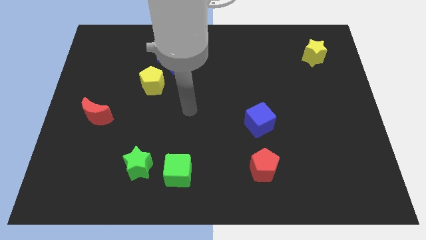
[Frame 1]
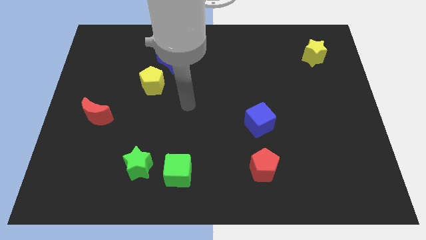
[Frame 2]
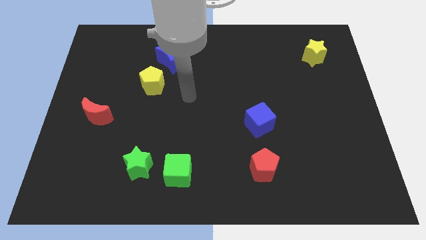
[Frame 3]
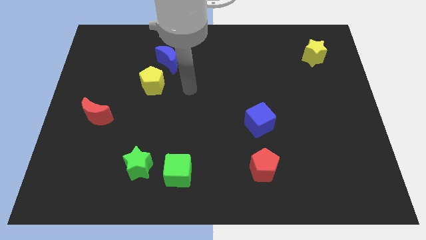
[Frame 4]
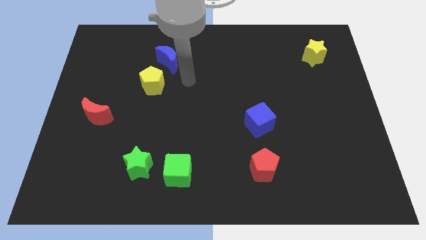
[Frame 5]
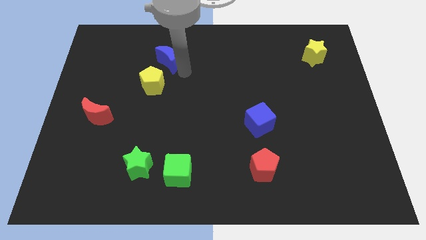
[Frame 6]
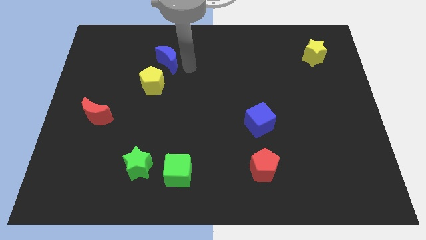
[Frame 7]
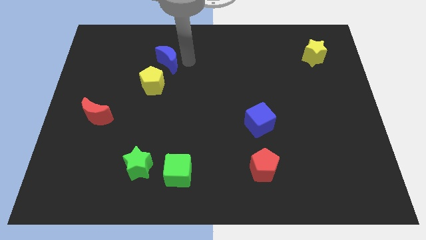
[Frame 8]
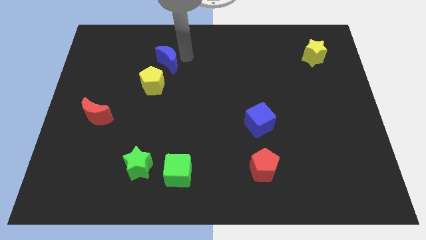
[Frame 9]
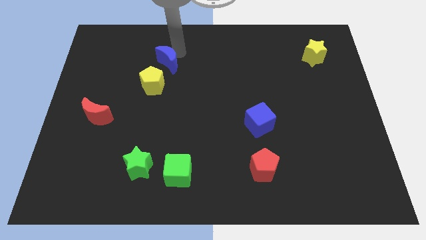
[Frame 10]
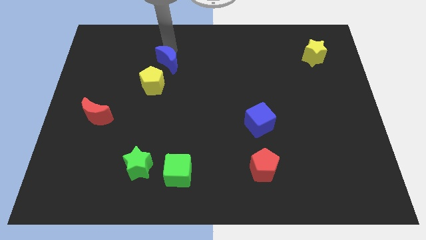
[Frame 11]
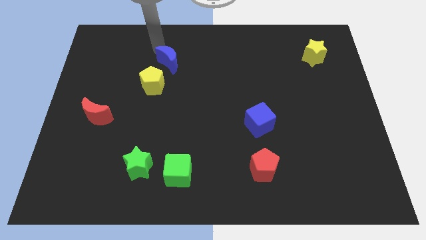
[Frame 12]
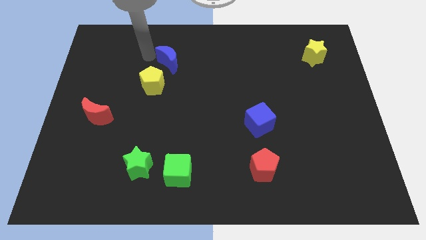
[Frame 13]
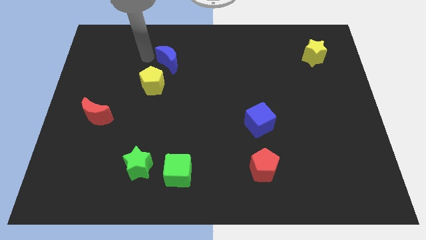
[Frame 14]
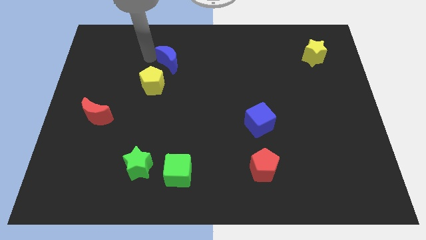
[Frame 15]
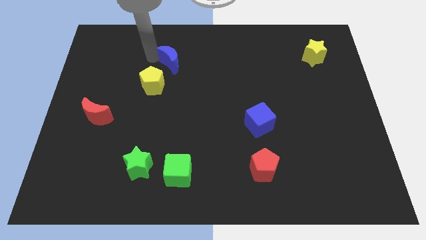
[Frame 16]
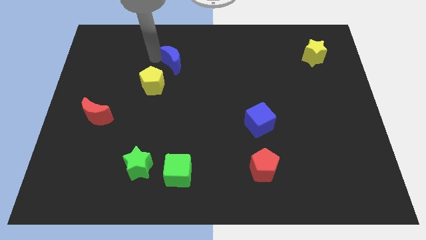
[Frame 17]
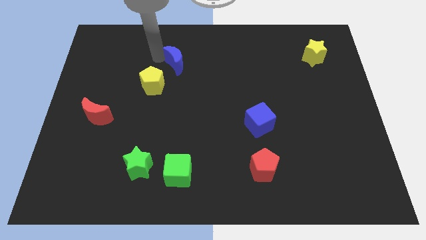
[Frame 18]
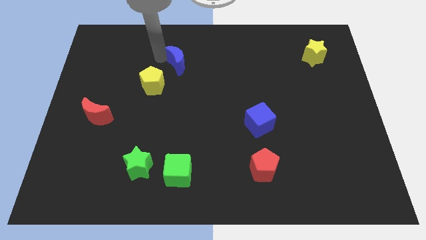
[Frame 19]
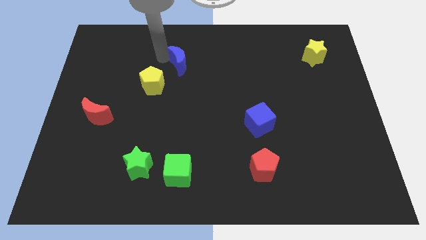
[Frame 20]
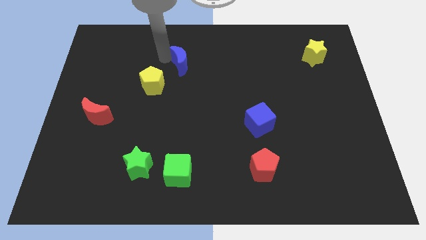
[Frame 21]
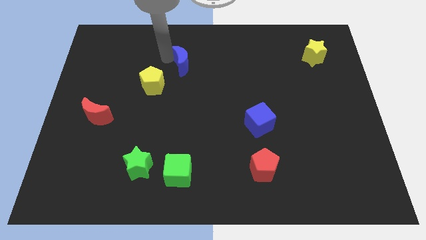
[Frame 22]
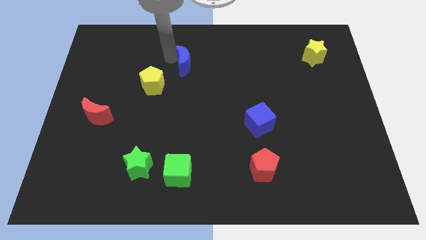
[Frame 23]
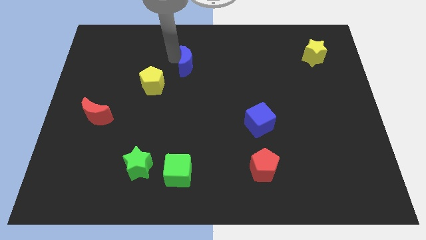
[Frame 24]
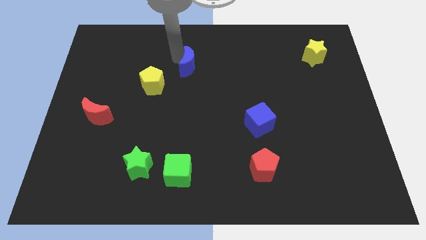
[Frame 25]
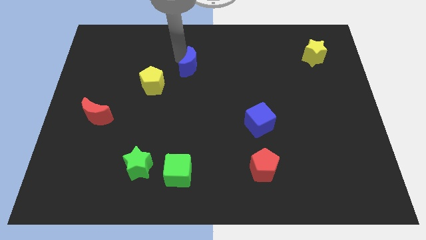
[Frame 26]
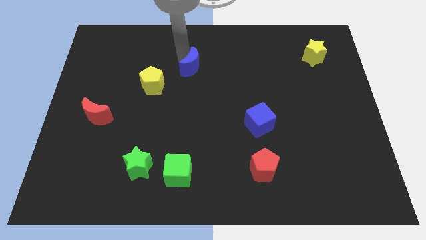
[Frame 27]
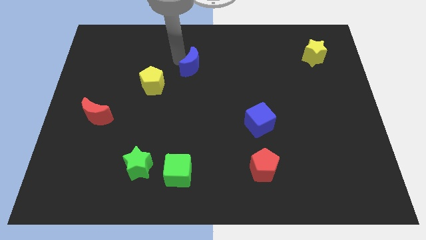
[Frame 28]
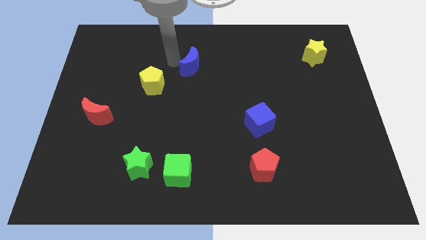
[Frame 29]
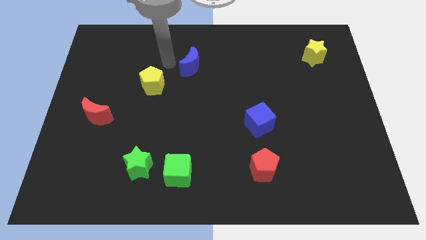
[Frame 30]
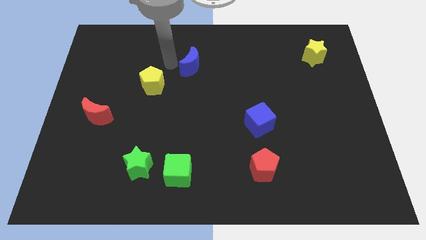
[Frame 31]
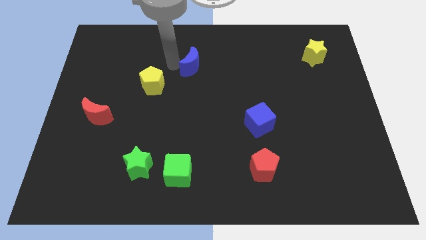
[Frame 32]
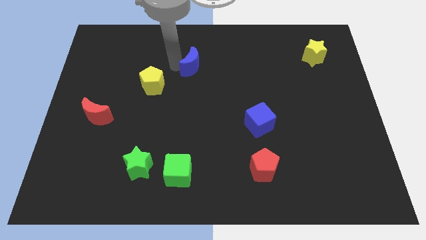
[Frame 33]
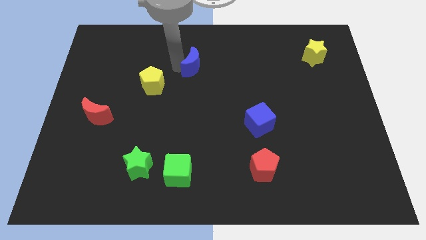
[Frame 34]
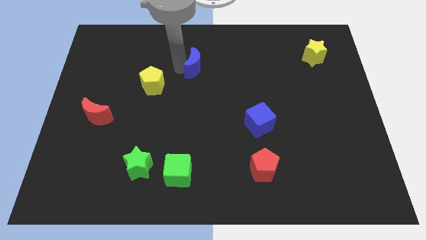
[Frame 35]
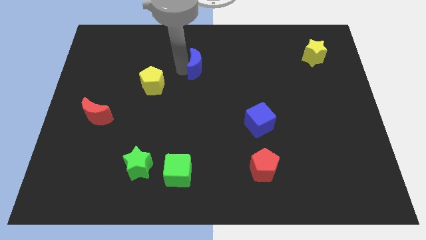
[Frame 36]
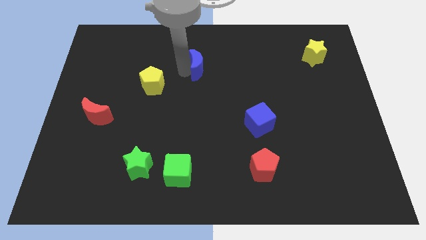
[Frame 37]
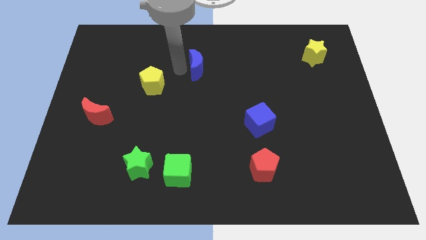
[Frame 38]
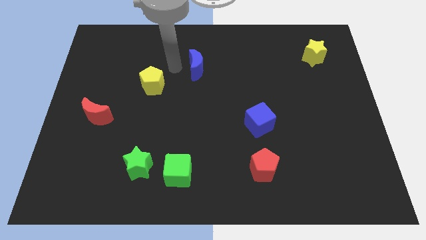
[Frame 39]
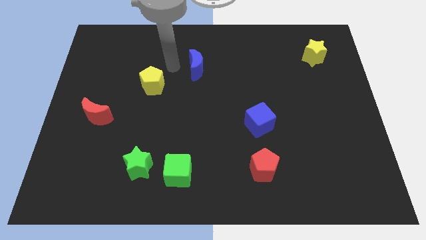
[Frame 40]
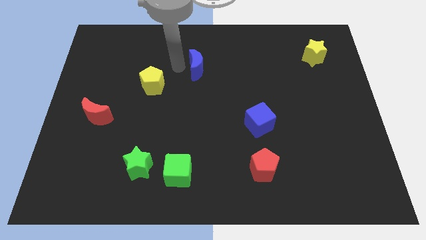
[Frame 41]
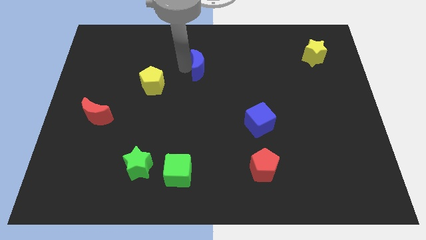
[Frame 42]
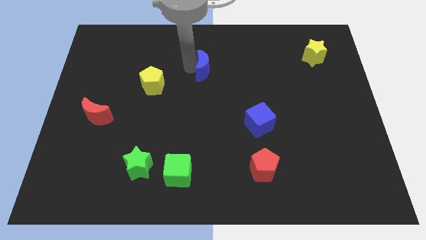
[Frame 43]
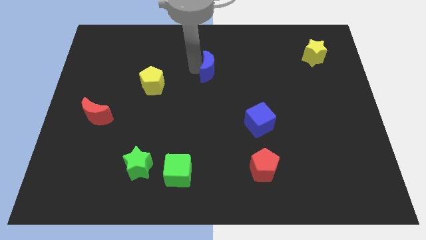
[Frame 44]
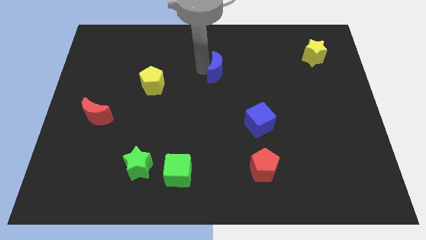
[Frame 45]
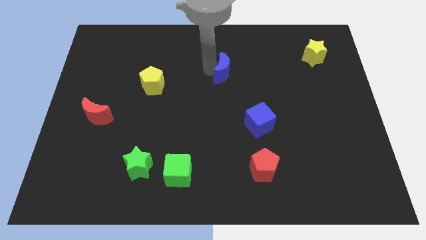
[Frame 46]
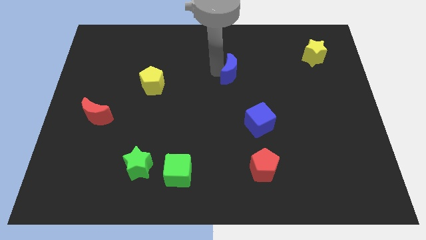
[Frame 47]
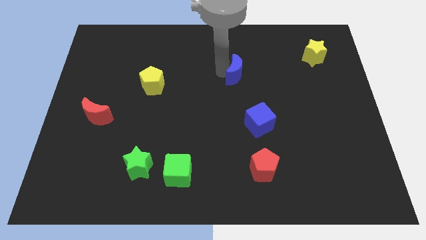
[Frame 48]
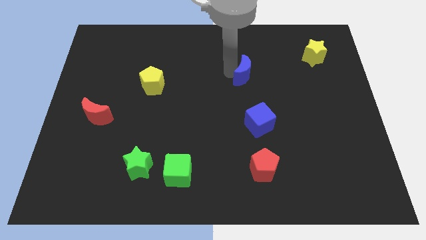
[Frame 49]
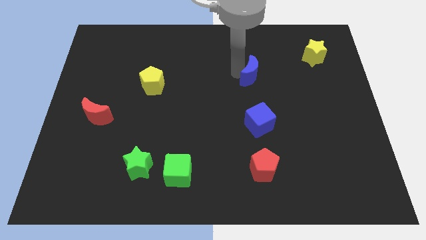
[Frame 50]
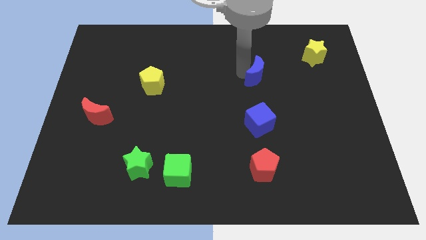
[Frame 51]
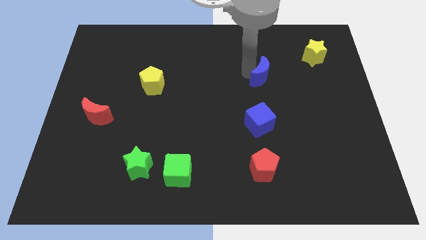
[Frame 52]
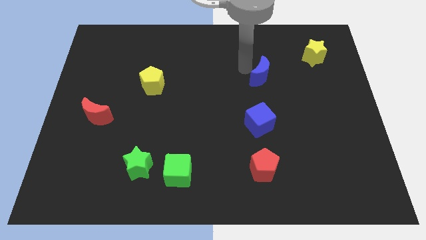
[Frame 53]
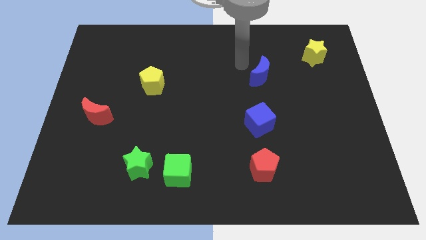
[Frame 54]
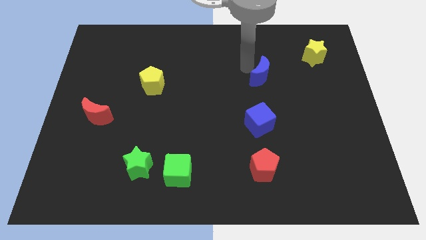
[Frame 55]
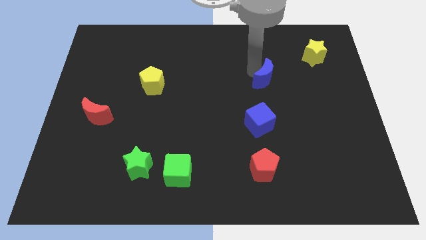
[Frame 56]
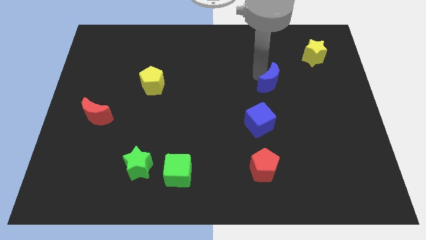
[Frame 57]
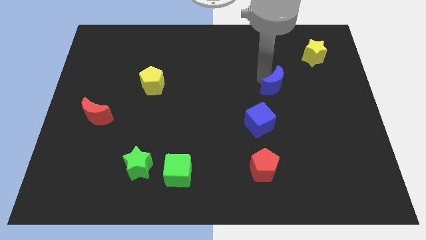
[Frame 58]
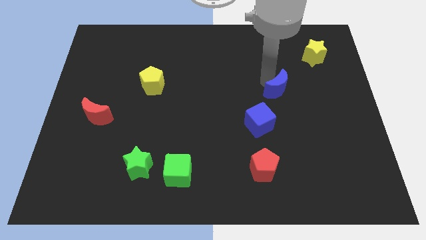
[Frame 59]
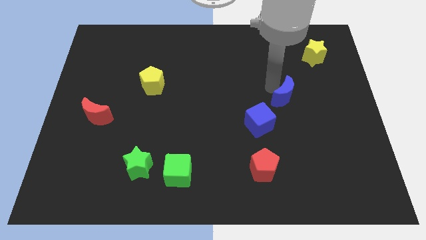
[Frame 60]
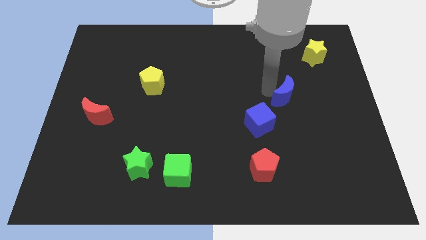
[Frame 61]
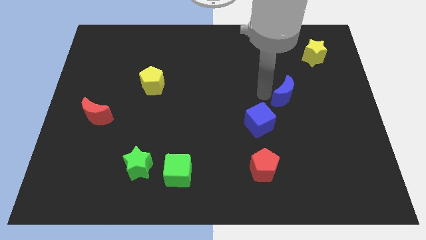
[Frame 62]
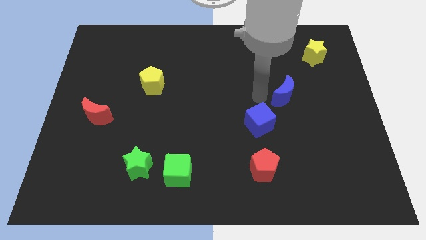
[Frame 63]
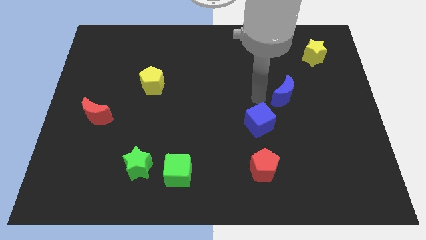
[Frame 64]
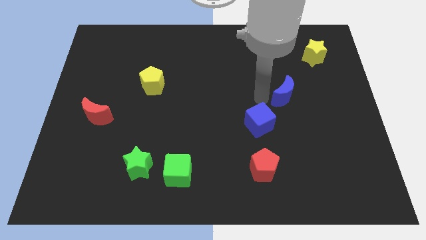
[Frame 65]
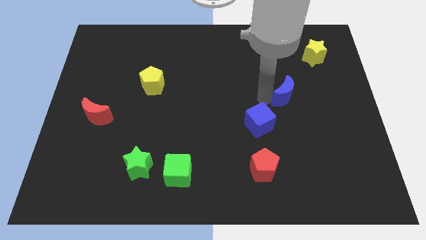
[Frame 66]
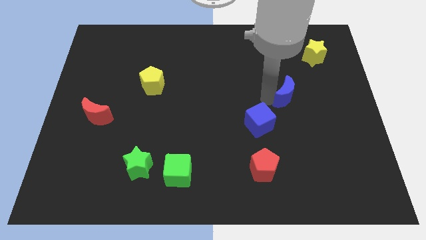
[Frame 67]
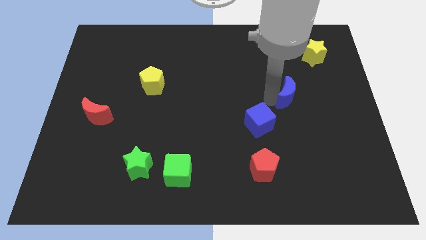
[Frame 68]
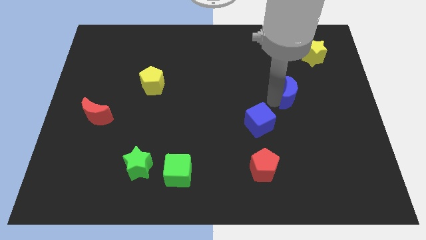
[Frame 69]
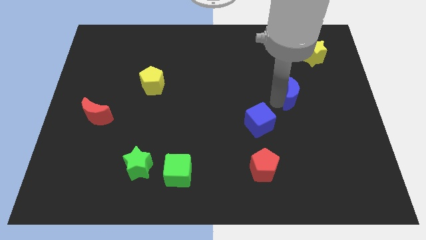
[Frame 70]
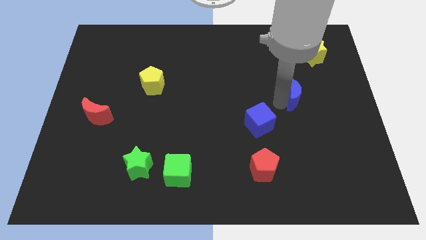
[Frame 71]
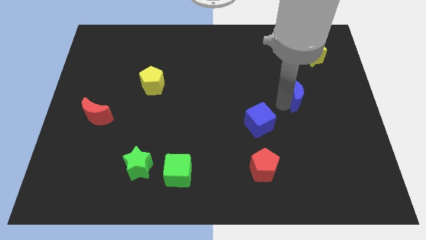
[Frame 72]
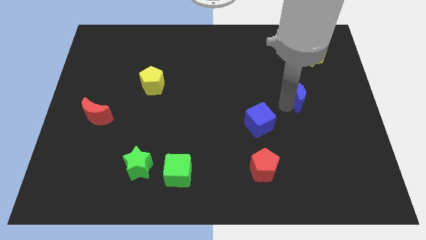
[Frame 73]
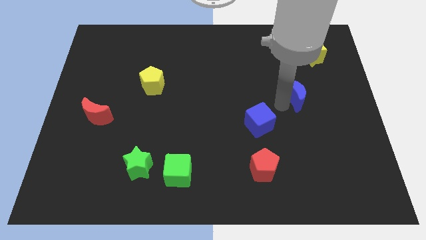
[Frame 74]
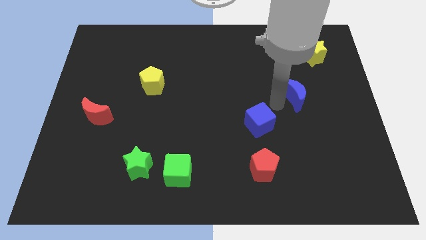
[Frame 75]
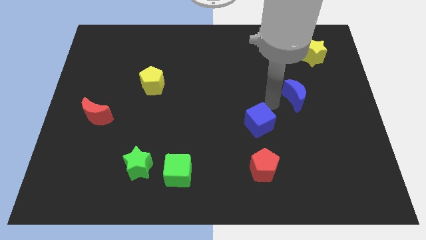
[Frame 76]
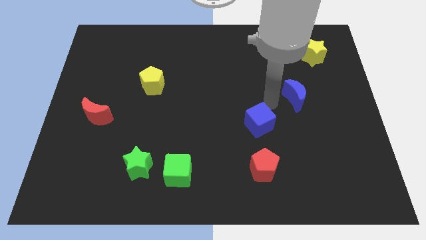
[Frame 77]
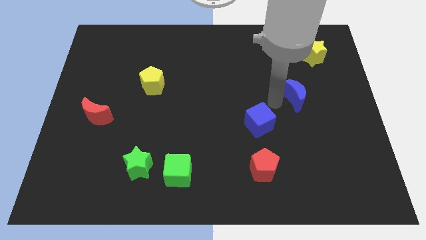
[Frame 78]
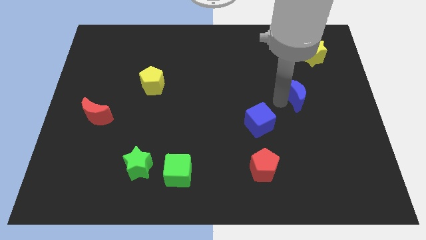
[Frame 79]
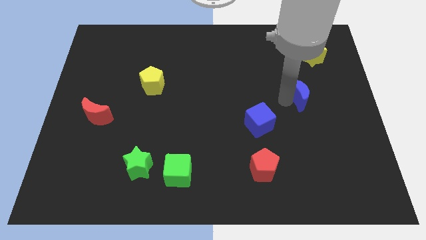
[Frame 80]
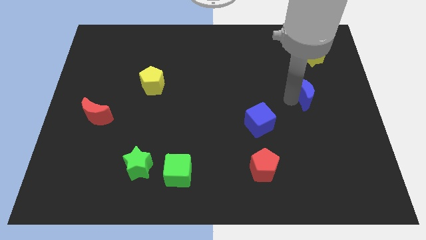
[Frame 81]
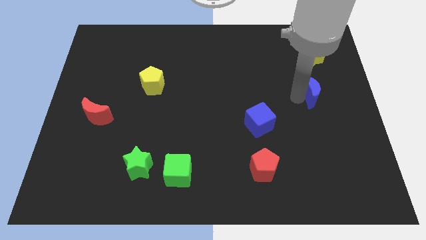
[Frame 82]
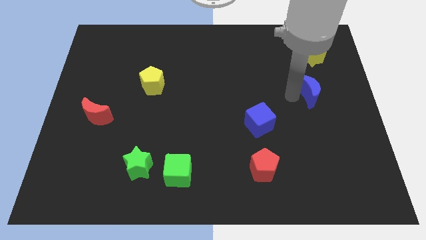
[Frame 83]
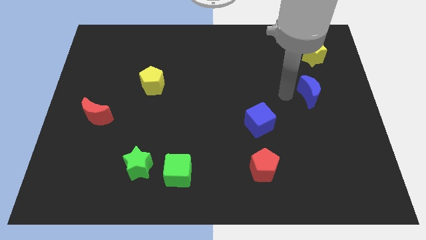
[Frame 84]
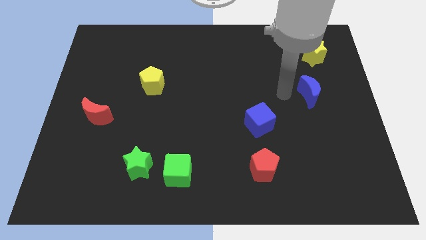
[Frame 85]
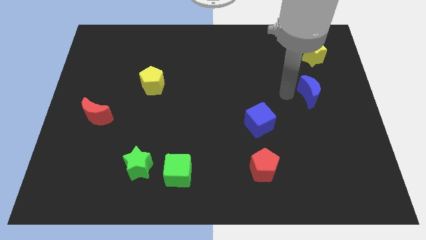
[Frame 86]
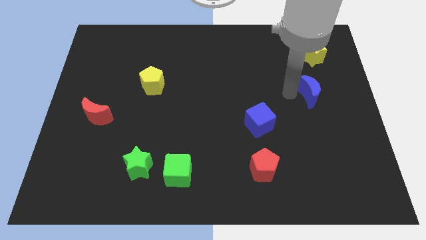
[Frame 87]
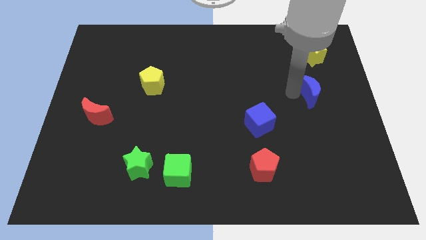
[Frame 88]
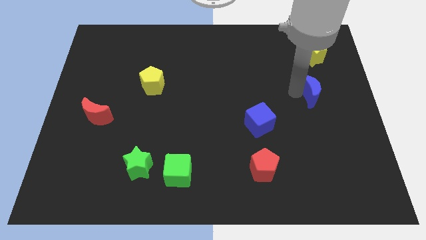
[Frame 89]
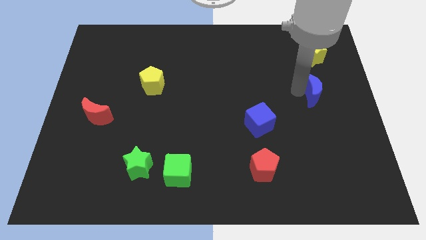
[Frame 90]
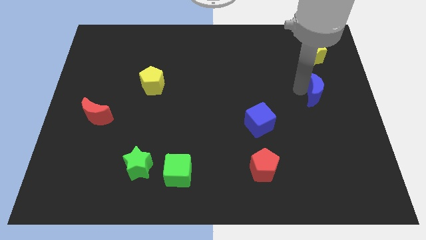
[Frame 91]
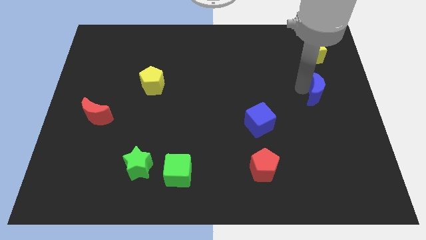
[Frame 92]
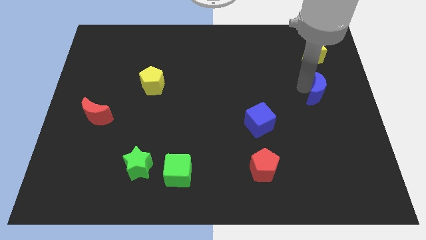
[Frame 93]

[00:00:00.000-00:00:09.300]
slide the blue moon to the right side
